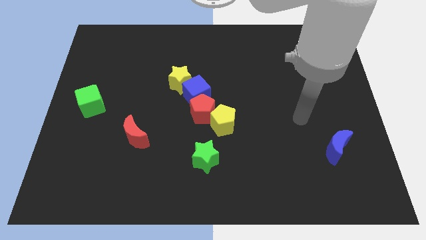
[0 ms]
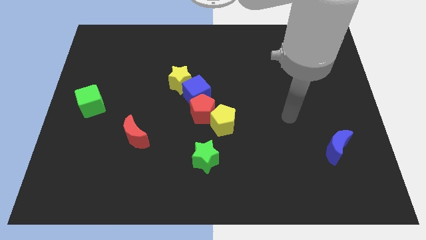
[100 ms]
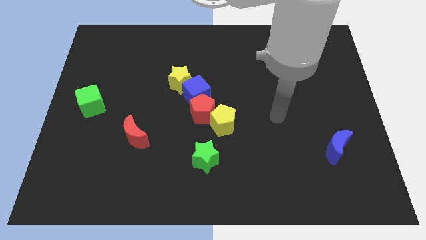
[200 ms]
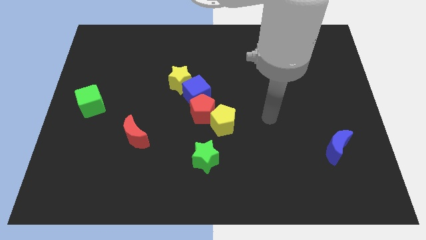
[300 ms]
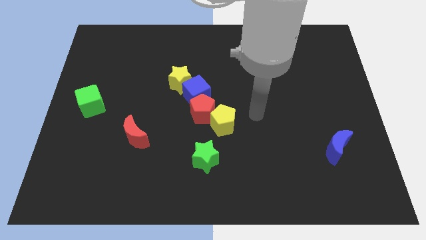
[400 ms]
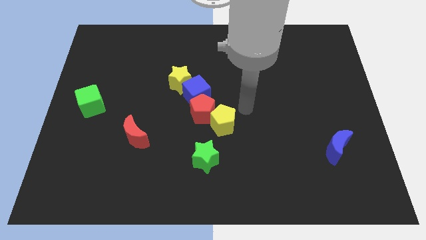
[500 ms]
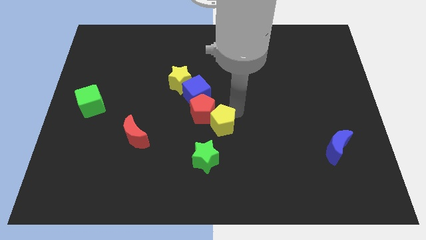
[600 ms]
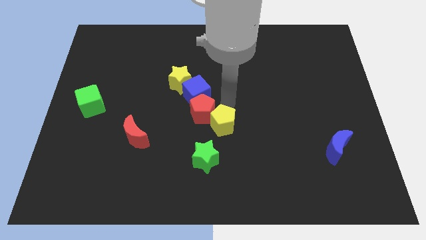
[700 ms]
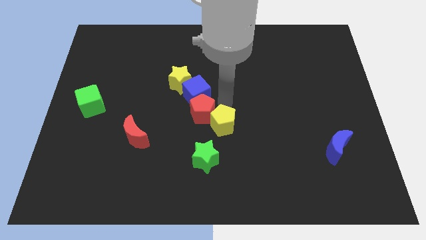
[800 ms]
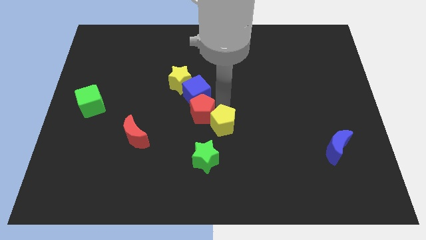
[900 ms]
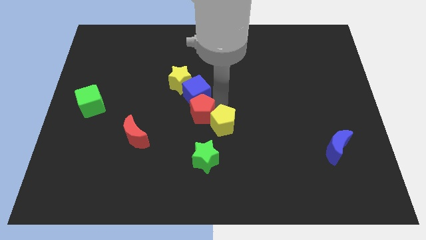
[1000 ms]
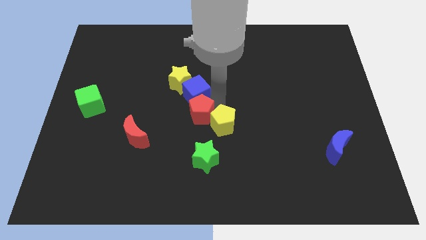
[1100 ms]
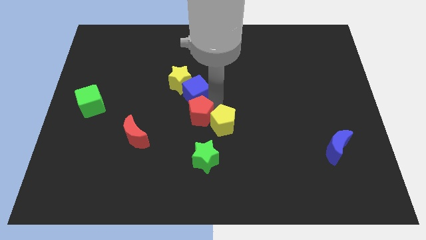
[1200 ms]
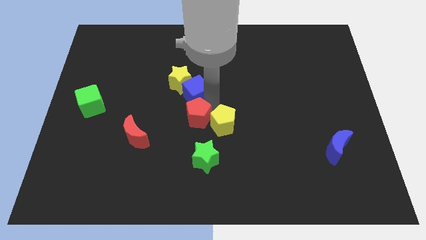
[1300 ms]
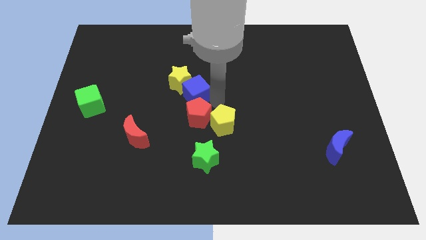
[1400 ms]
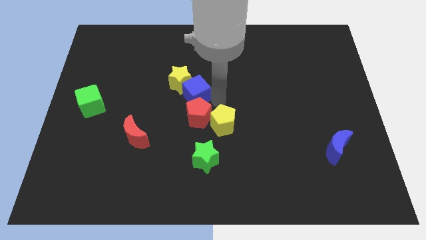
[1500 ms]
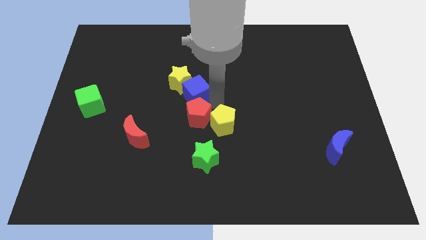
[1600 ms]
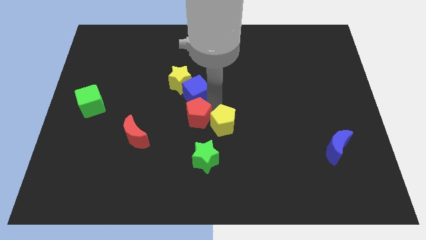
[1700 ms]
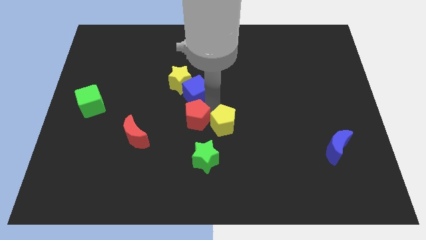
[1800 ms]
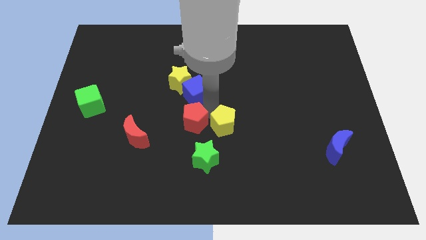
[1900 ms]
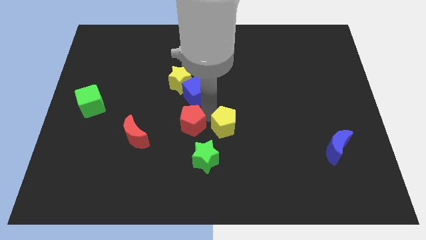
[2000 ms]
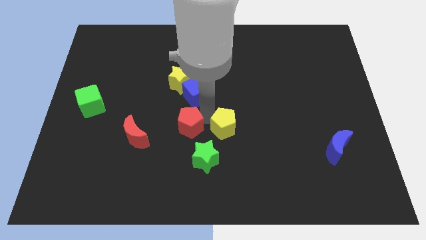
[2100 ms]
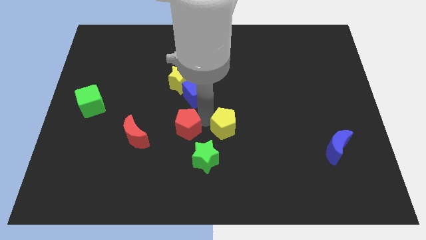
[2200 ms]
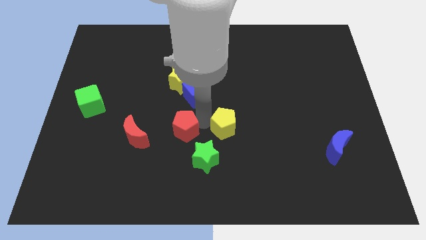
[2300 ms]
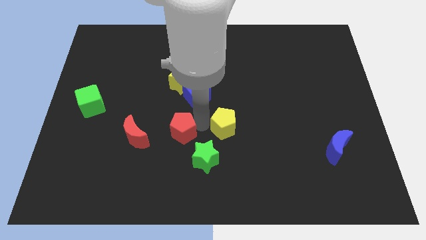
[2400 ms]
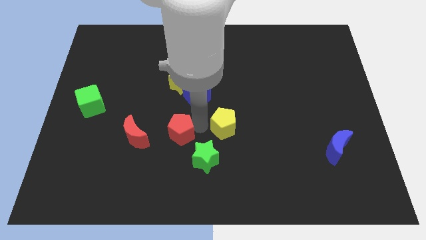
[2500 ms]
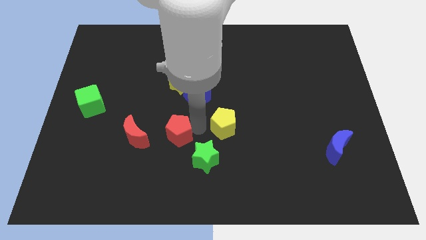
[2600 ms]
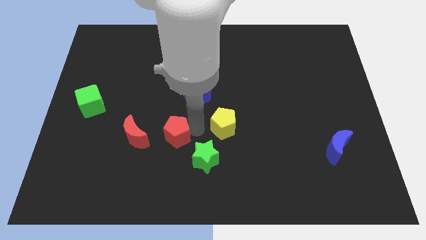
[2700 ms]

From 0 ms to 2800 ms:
move the red pentagon away from the yellow pentagon and blue cube

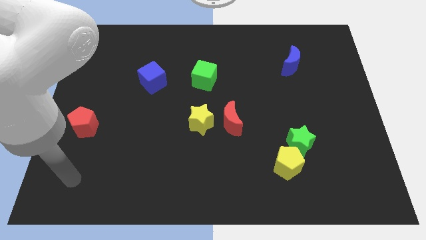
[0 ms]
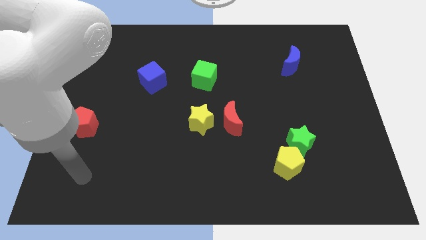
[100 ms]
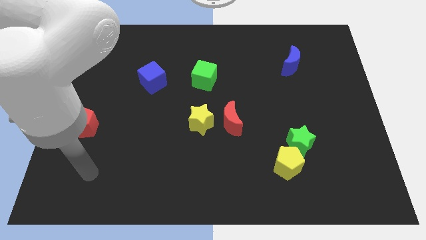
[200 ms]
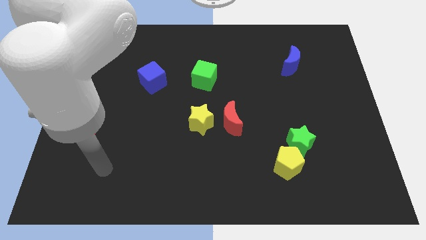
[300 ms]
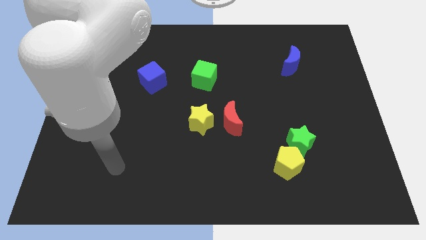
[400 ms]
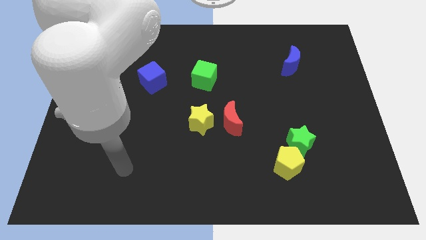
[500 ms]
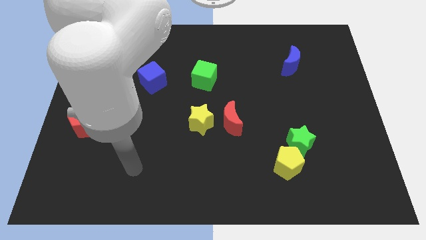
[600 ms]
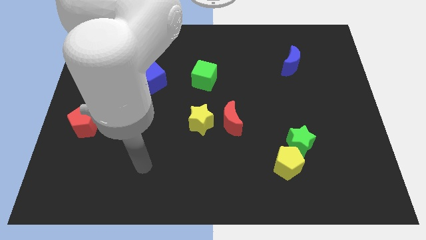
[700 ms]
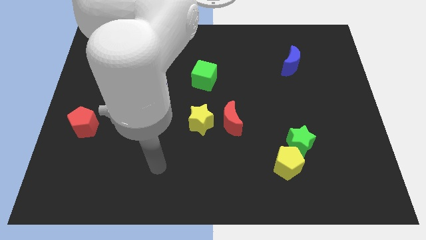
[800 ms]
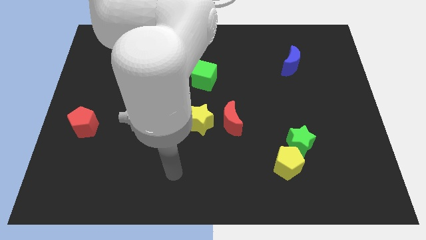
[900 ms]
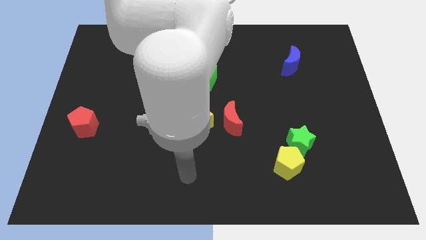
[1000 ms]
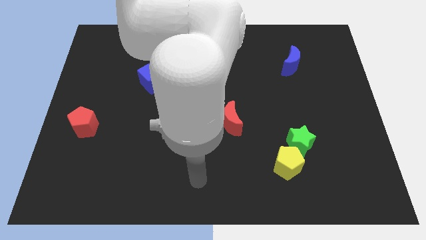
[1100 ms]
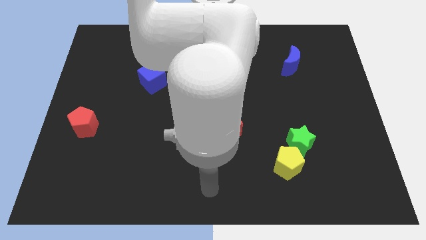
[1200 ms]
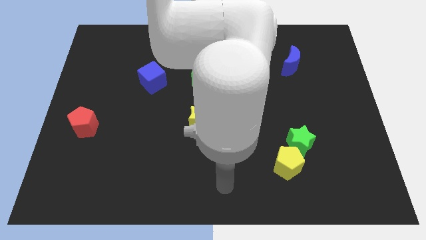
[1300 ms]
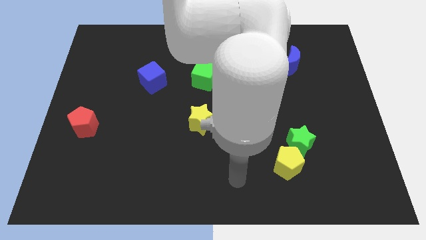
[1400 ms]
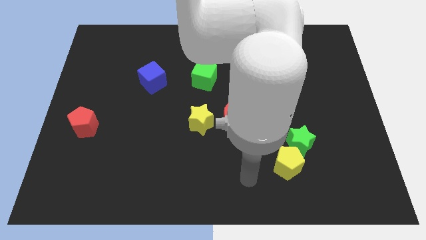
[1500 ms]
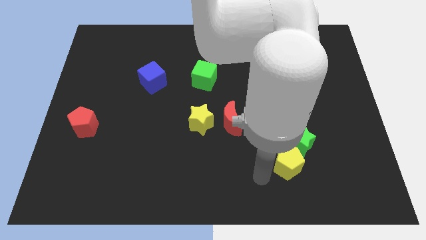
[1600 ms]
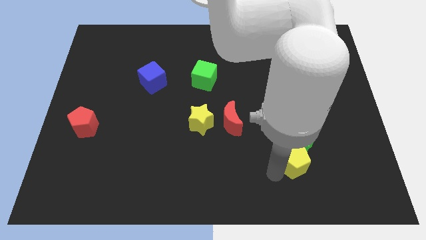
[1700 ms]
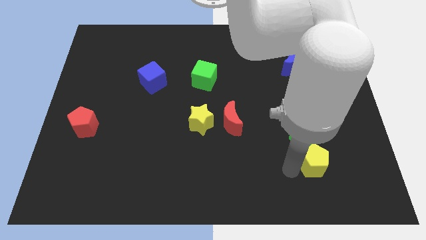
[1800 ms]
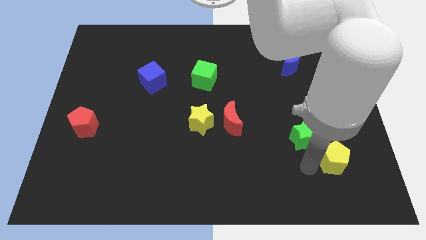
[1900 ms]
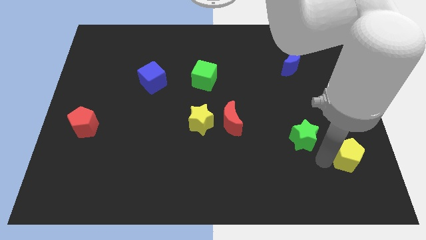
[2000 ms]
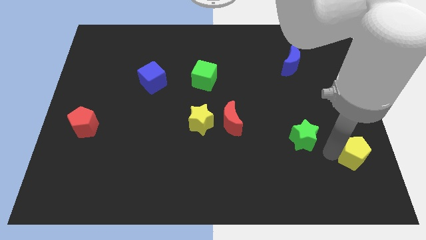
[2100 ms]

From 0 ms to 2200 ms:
separate the green star from the yellow pentagon

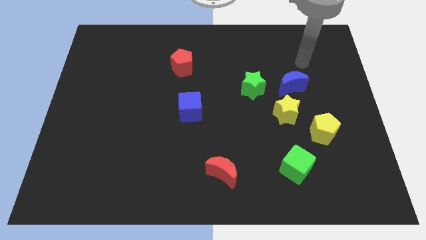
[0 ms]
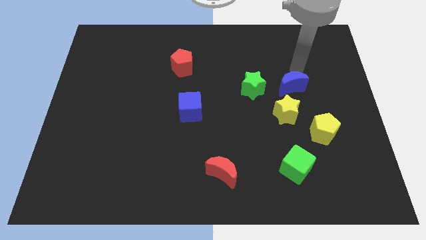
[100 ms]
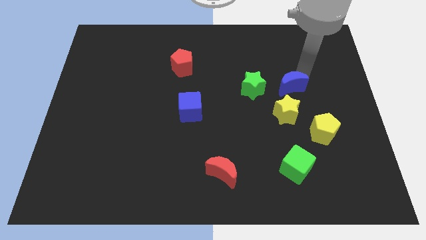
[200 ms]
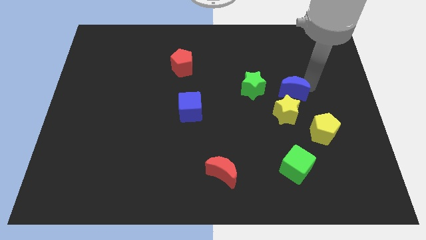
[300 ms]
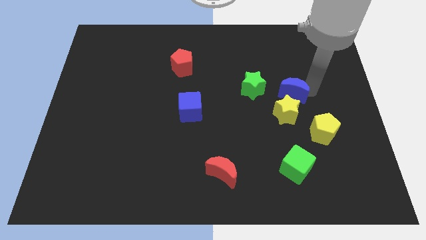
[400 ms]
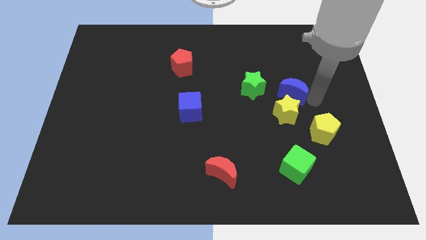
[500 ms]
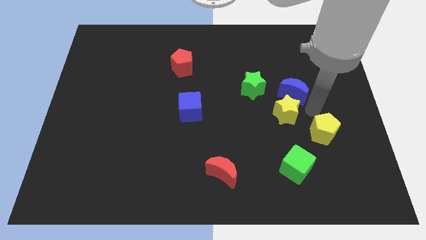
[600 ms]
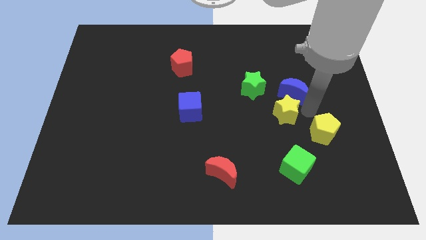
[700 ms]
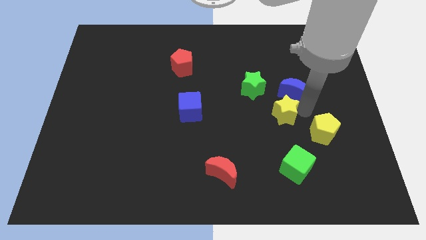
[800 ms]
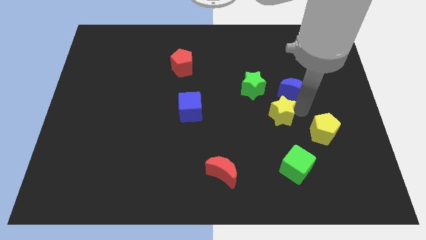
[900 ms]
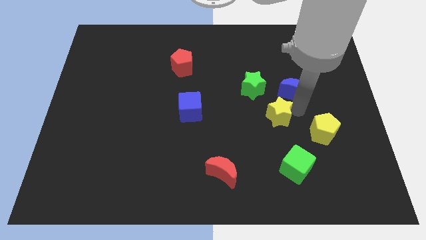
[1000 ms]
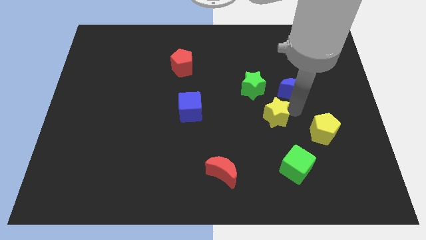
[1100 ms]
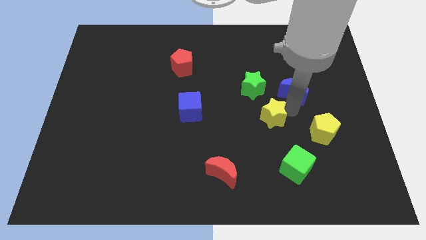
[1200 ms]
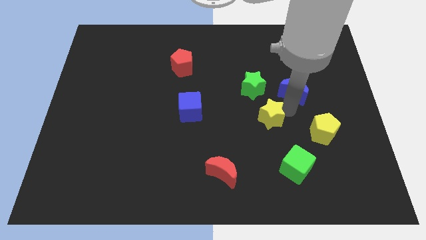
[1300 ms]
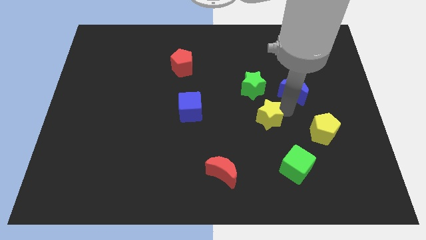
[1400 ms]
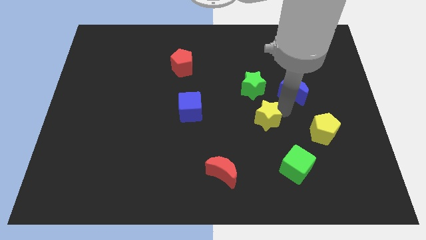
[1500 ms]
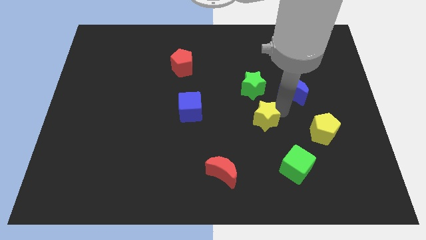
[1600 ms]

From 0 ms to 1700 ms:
move the yellow star away from the blue moon and yellow pentagon

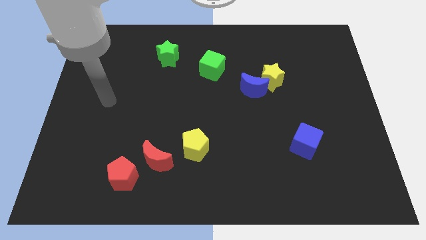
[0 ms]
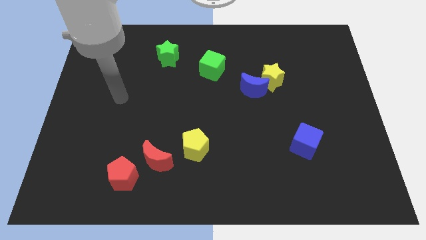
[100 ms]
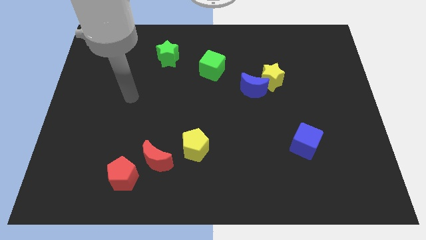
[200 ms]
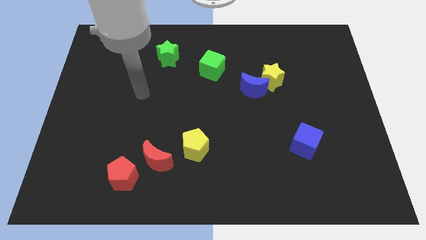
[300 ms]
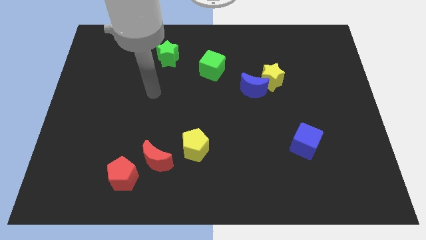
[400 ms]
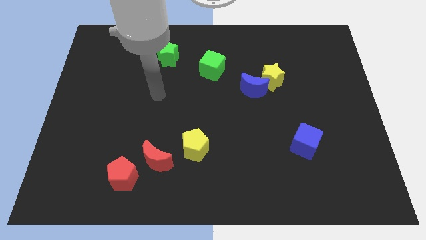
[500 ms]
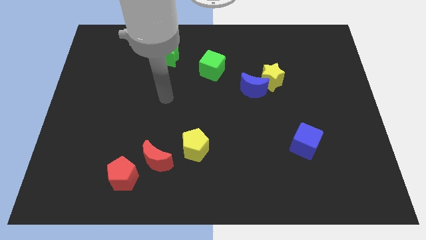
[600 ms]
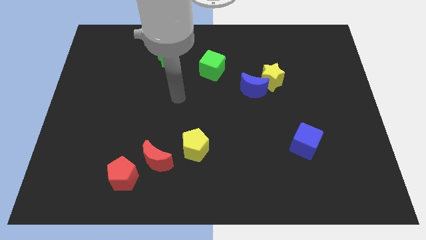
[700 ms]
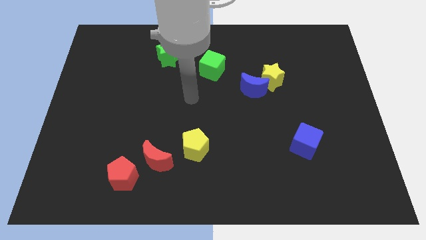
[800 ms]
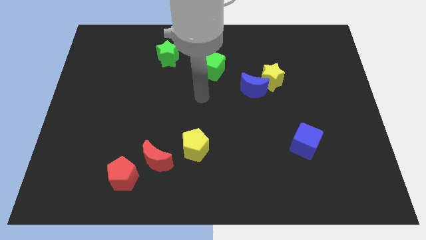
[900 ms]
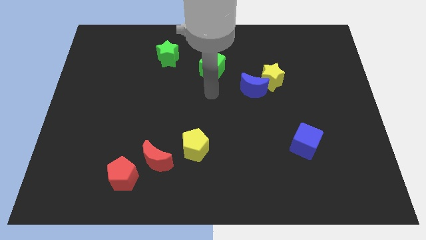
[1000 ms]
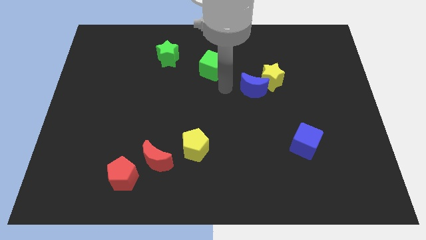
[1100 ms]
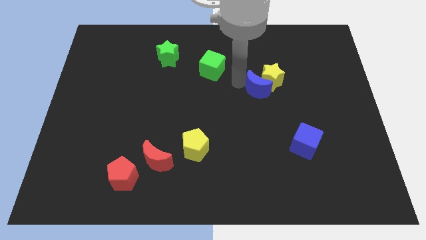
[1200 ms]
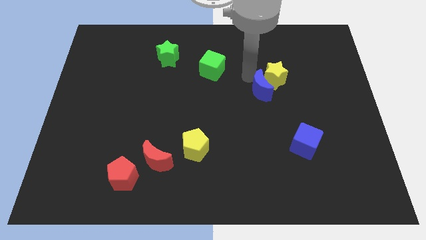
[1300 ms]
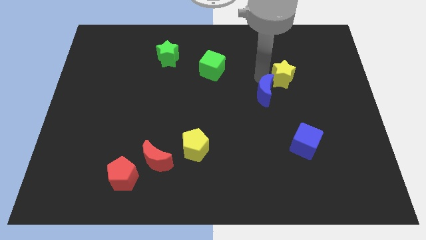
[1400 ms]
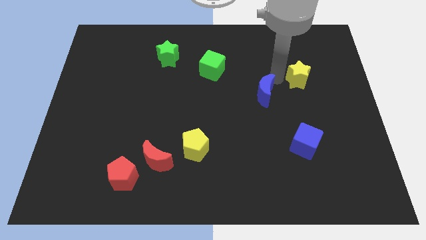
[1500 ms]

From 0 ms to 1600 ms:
pull the blue moon apart from the yellow star

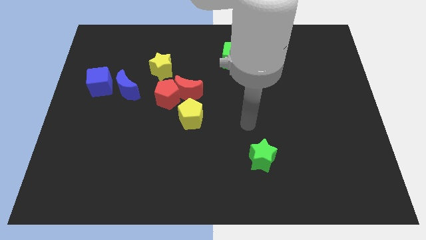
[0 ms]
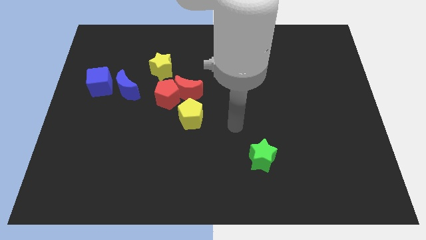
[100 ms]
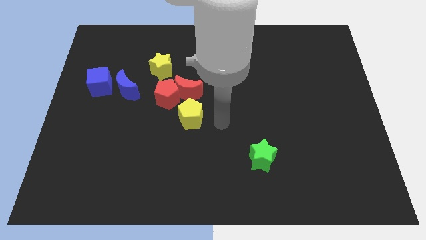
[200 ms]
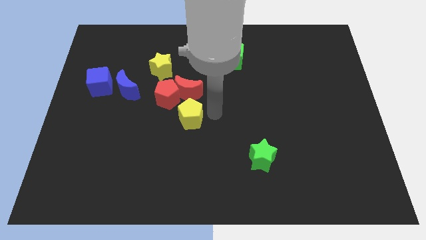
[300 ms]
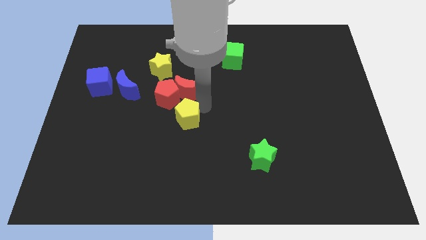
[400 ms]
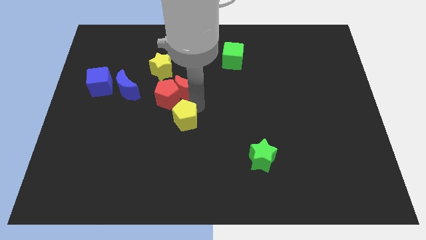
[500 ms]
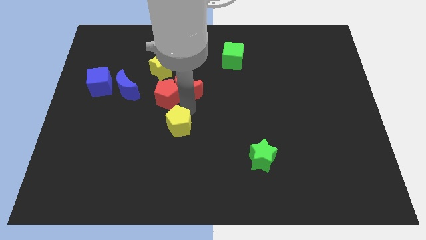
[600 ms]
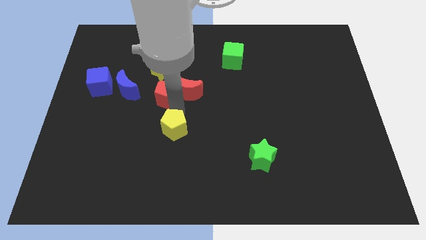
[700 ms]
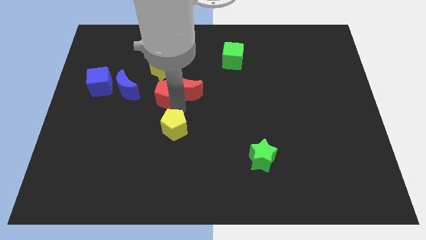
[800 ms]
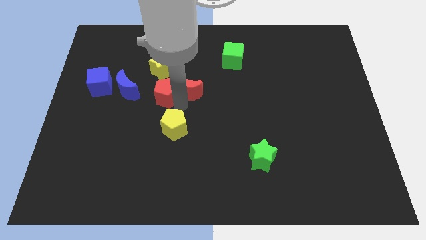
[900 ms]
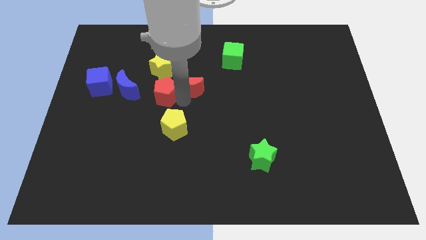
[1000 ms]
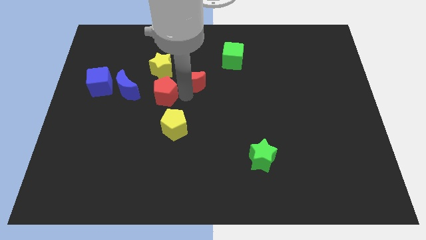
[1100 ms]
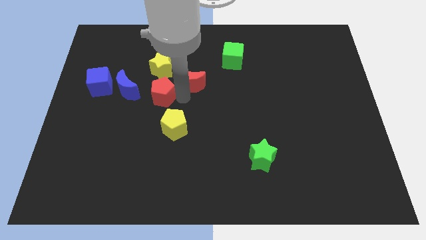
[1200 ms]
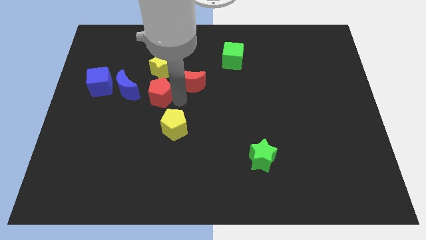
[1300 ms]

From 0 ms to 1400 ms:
move the red moon away from the red pentagon and yellow pentagon
